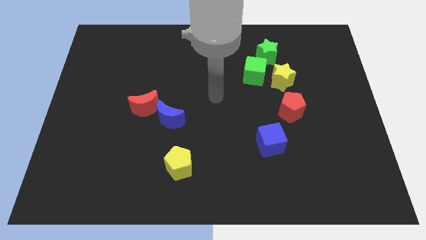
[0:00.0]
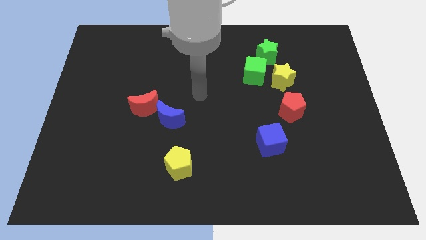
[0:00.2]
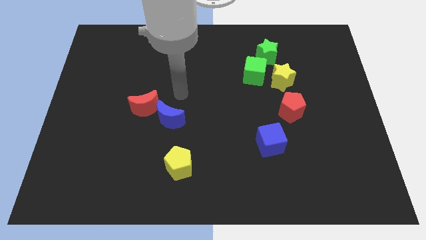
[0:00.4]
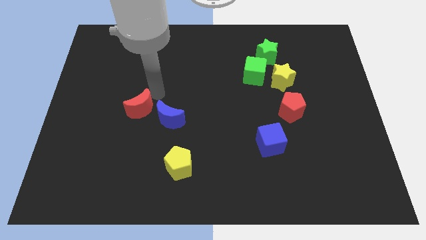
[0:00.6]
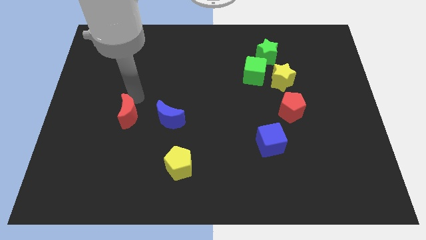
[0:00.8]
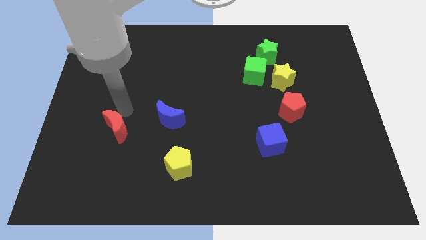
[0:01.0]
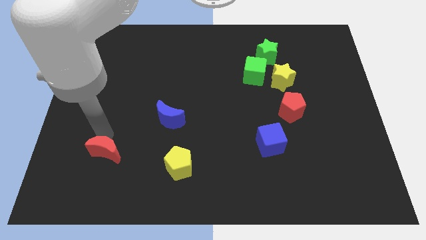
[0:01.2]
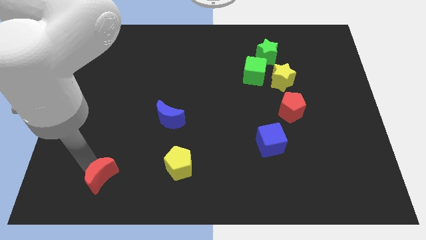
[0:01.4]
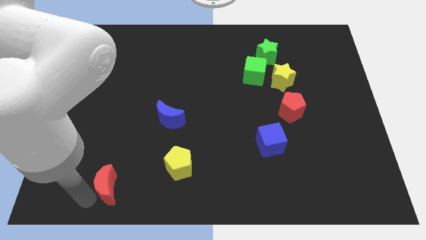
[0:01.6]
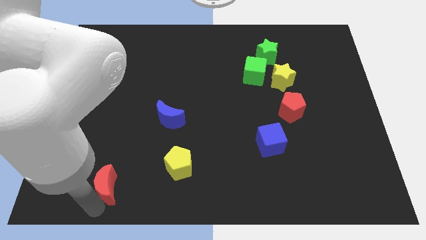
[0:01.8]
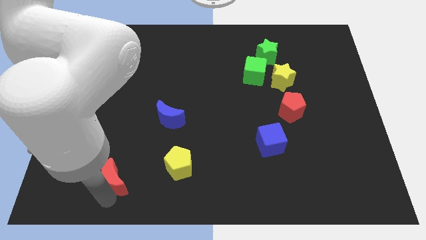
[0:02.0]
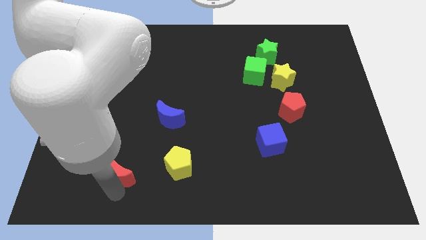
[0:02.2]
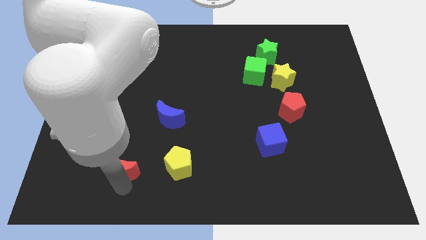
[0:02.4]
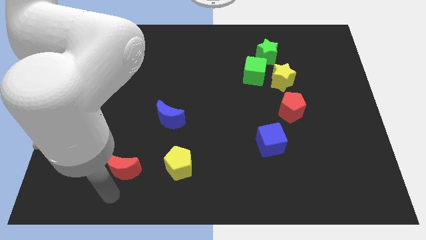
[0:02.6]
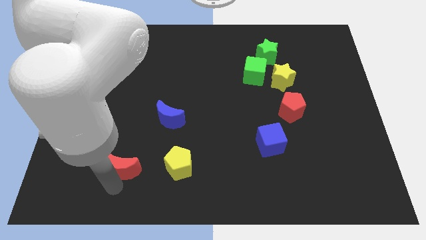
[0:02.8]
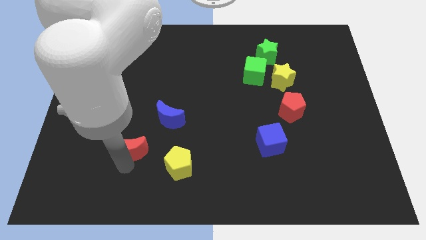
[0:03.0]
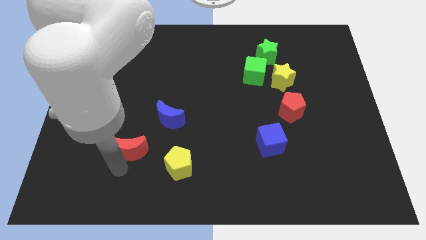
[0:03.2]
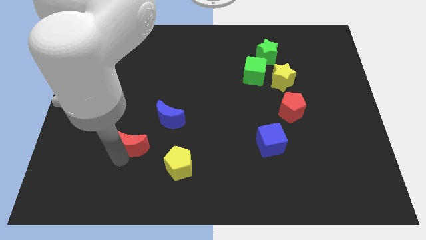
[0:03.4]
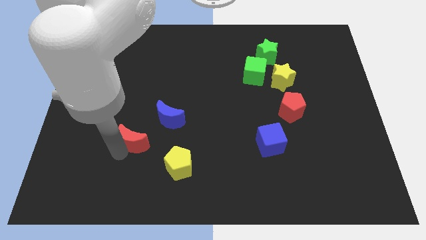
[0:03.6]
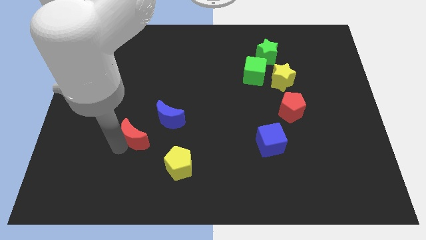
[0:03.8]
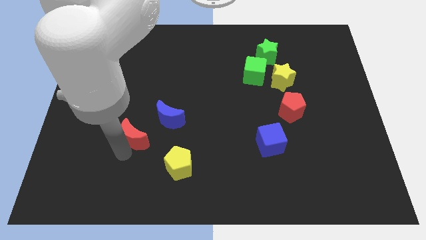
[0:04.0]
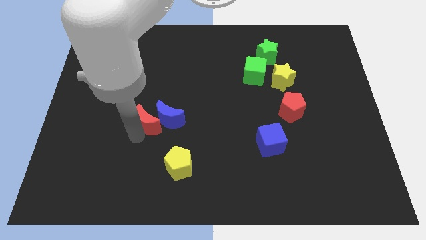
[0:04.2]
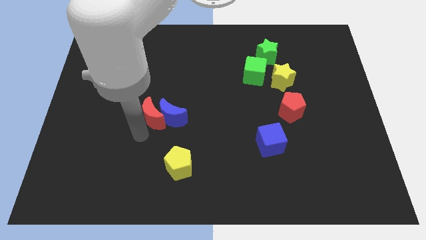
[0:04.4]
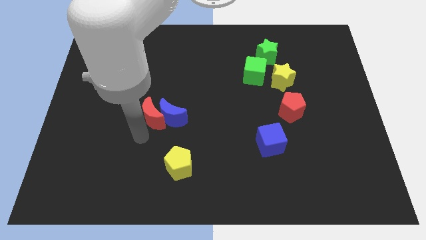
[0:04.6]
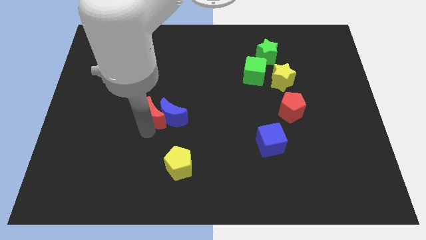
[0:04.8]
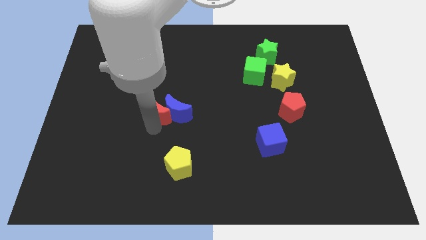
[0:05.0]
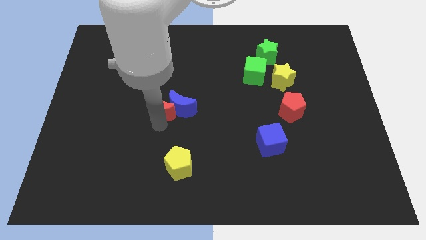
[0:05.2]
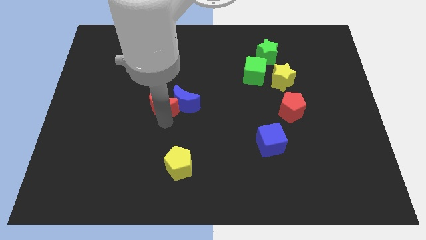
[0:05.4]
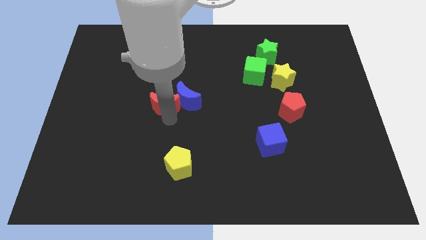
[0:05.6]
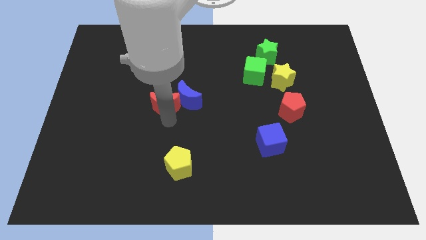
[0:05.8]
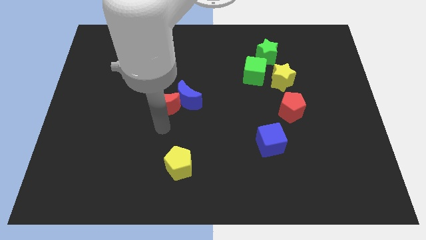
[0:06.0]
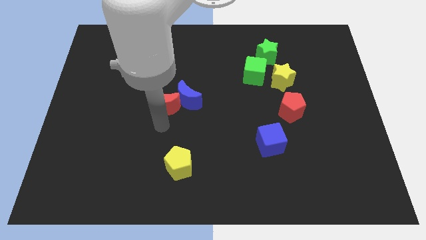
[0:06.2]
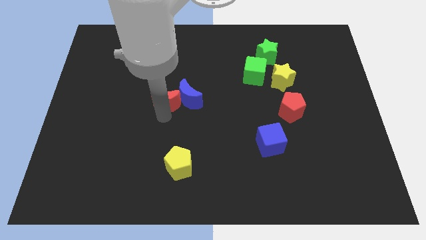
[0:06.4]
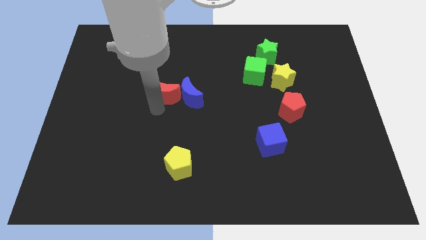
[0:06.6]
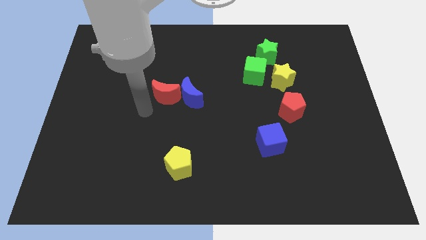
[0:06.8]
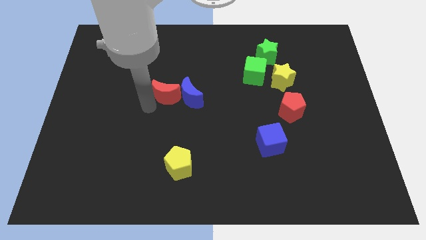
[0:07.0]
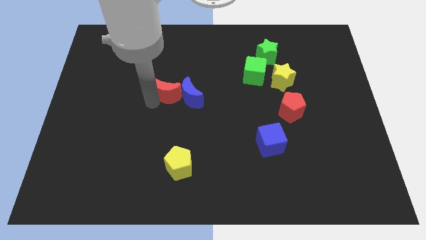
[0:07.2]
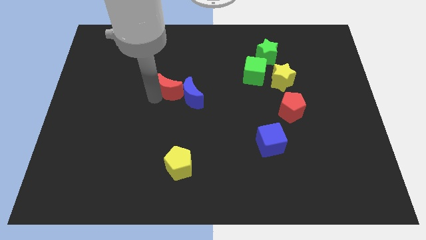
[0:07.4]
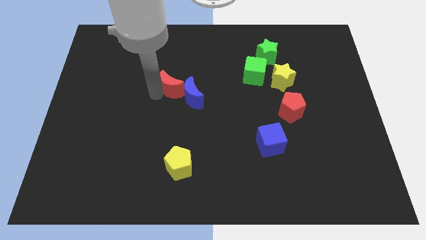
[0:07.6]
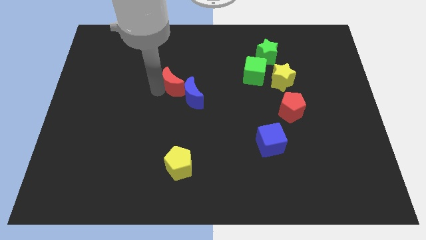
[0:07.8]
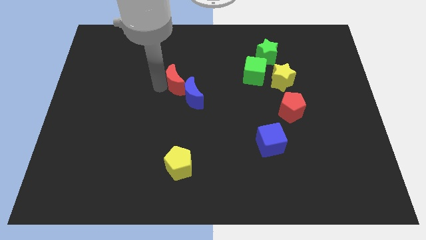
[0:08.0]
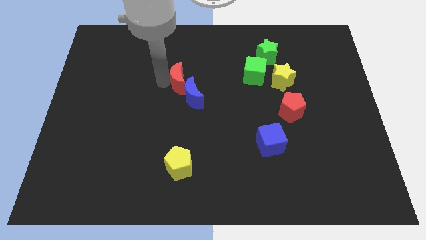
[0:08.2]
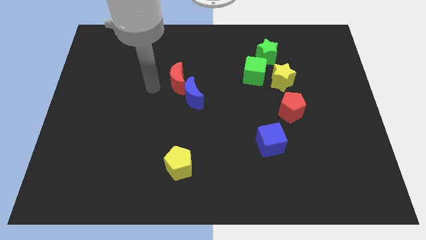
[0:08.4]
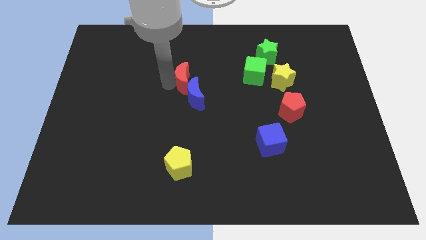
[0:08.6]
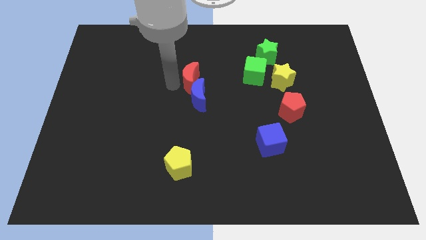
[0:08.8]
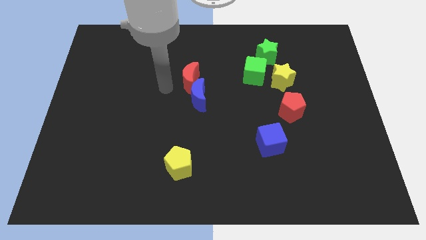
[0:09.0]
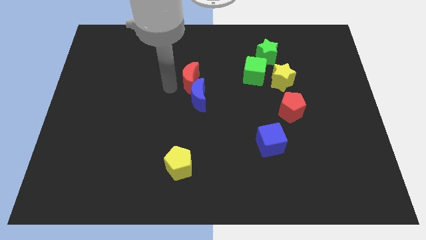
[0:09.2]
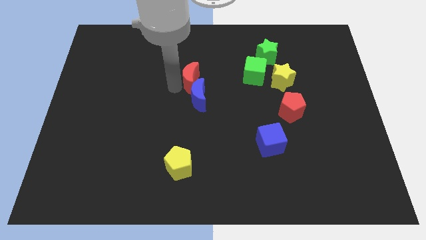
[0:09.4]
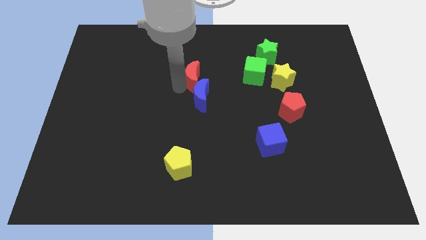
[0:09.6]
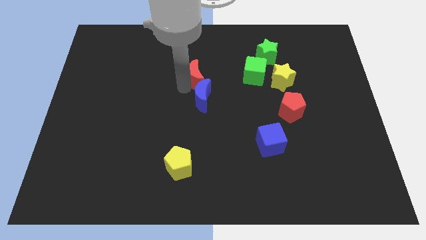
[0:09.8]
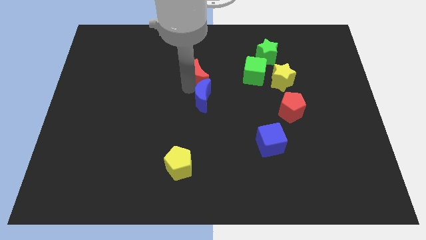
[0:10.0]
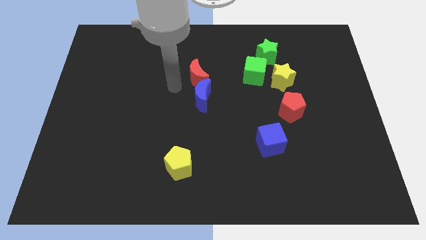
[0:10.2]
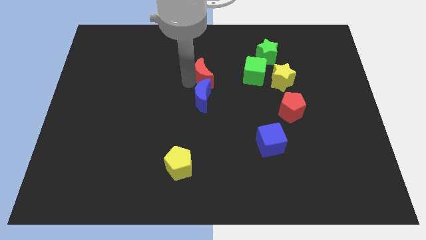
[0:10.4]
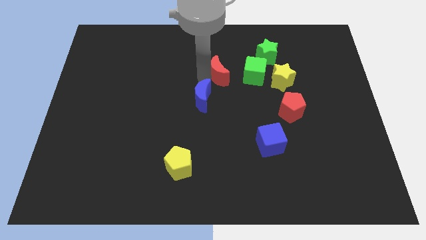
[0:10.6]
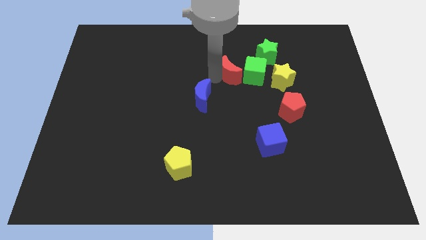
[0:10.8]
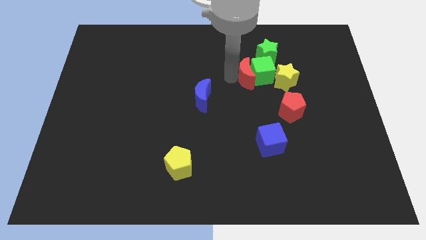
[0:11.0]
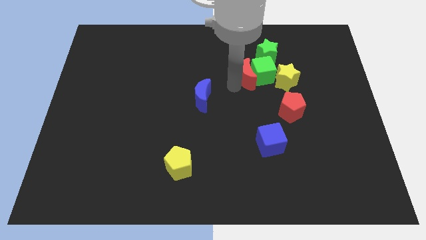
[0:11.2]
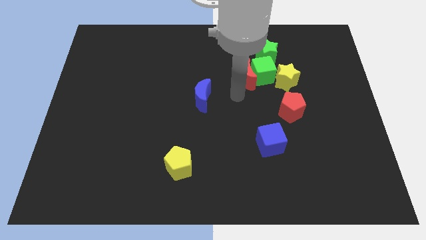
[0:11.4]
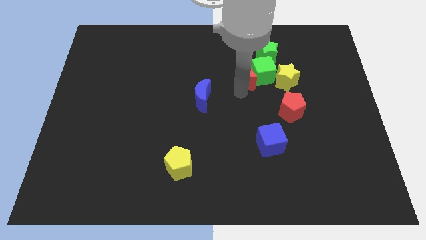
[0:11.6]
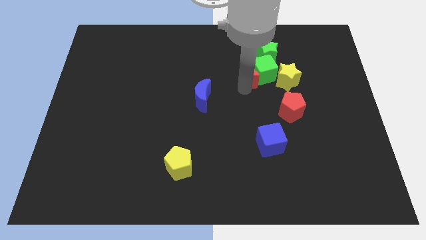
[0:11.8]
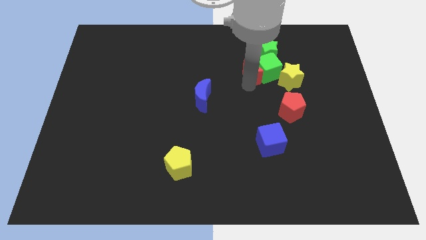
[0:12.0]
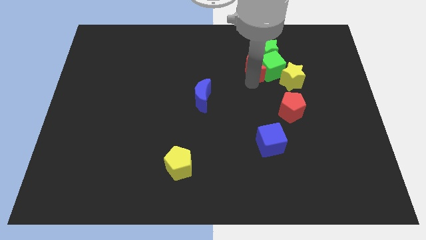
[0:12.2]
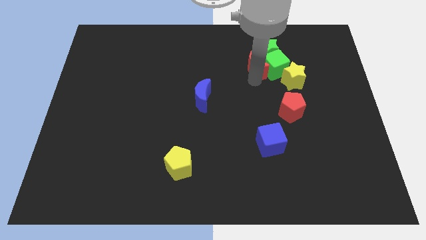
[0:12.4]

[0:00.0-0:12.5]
slide the red moon close to the green star
